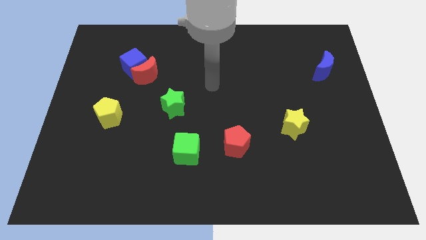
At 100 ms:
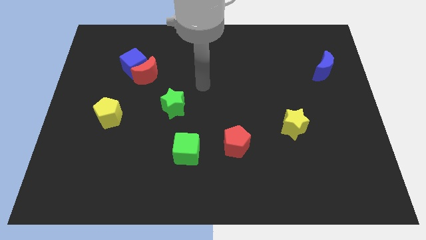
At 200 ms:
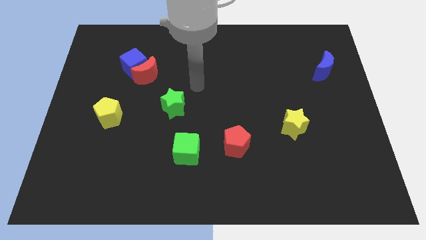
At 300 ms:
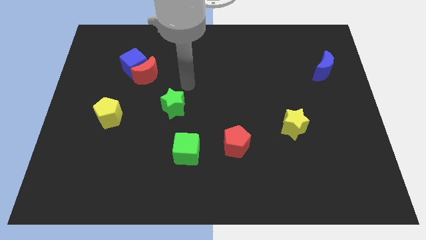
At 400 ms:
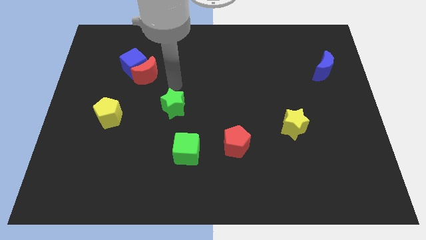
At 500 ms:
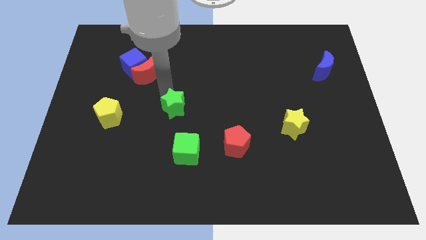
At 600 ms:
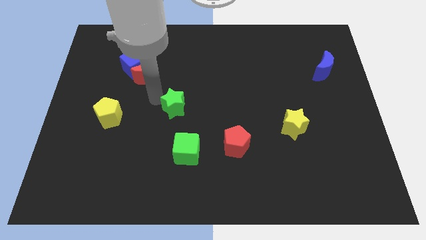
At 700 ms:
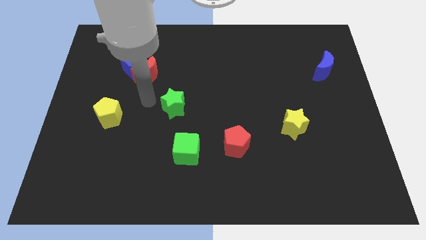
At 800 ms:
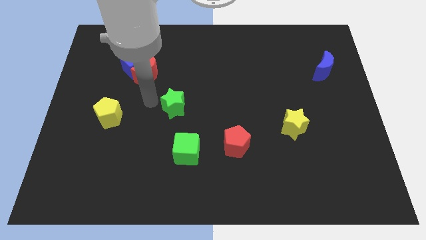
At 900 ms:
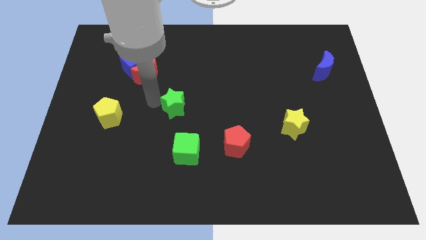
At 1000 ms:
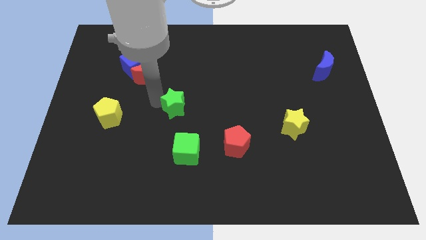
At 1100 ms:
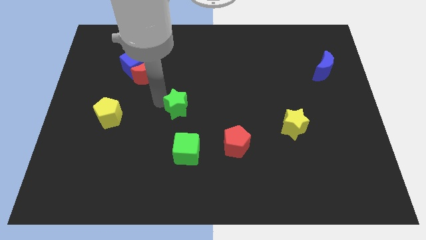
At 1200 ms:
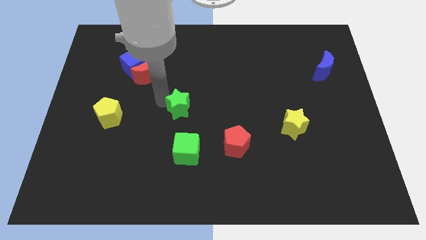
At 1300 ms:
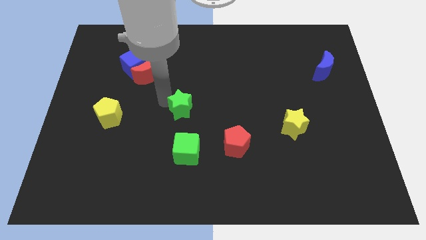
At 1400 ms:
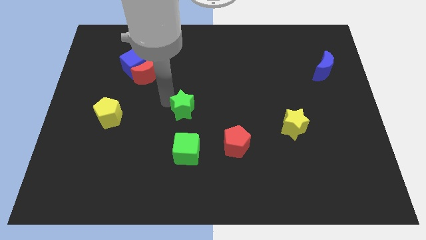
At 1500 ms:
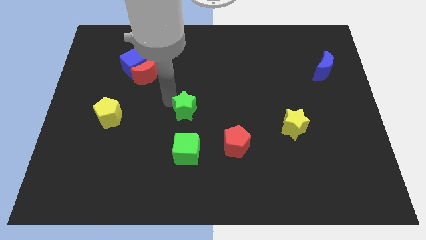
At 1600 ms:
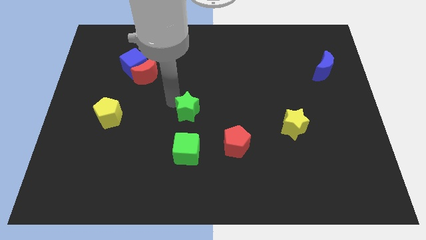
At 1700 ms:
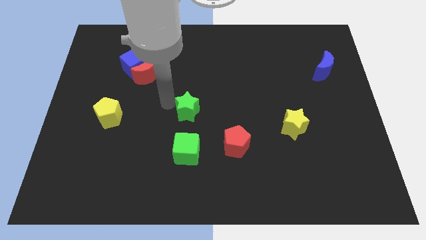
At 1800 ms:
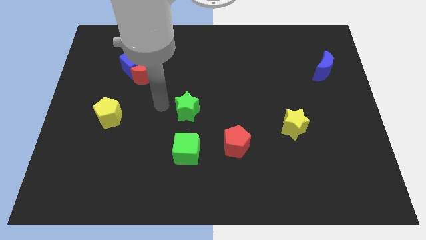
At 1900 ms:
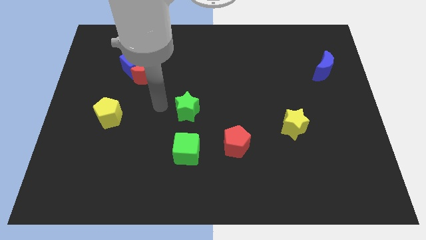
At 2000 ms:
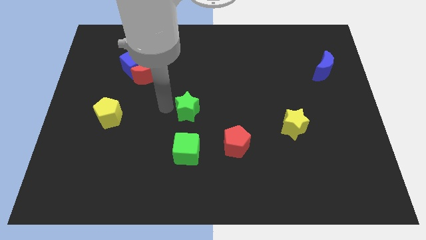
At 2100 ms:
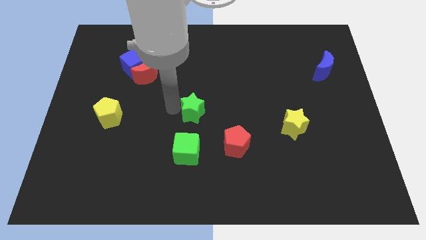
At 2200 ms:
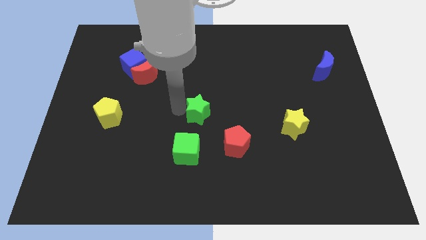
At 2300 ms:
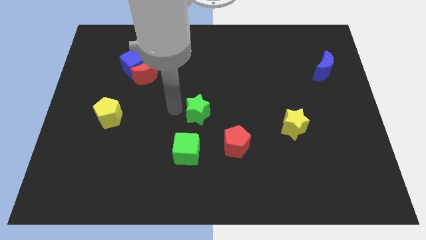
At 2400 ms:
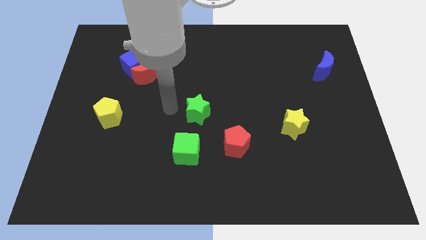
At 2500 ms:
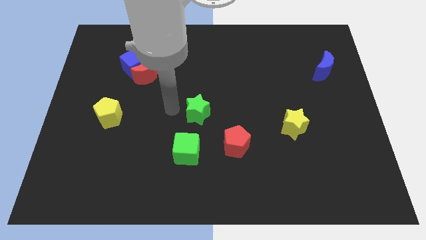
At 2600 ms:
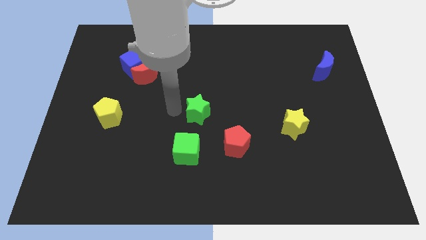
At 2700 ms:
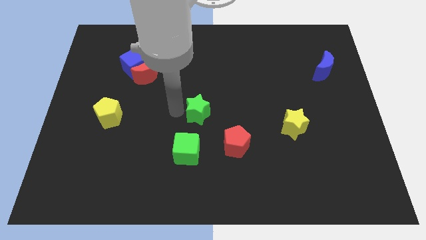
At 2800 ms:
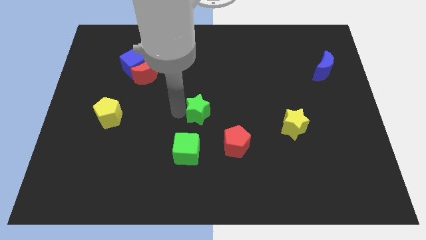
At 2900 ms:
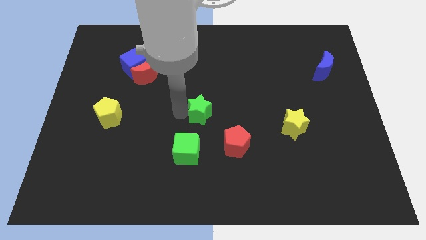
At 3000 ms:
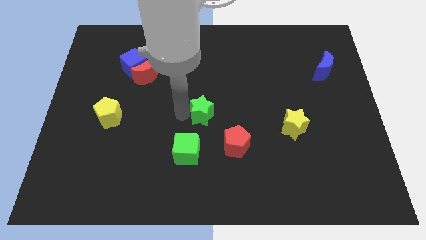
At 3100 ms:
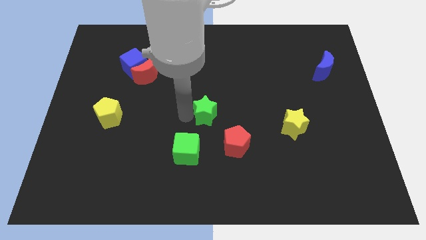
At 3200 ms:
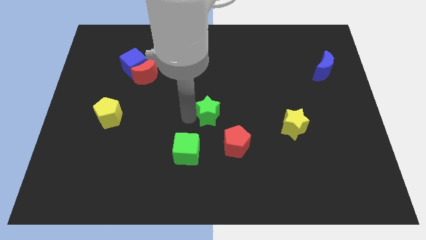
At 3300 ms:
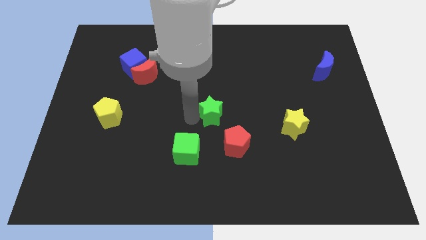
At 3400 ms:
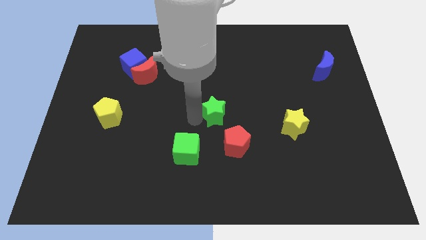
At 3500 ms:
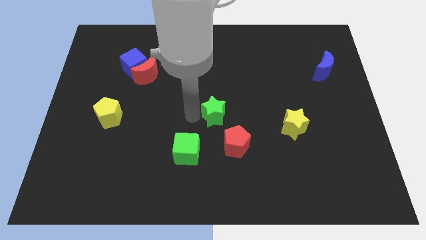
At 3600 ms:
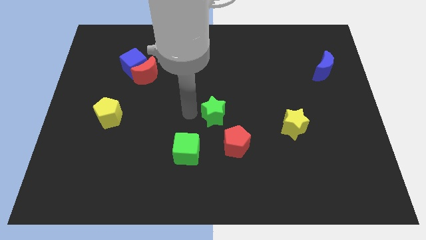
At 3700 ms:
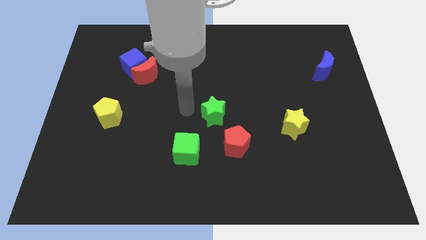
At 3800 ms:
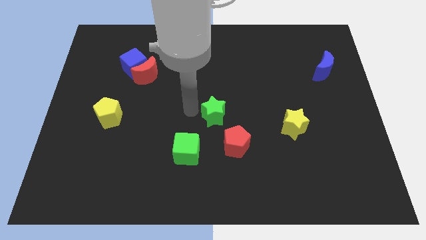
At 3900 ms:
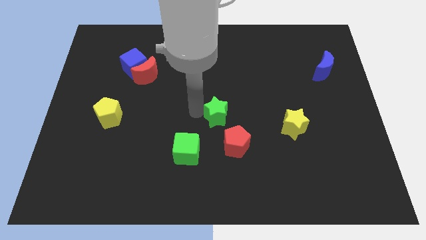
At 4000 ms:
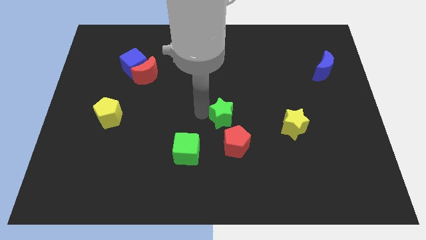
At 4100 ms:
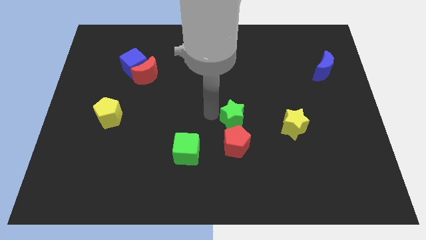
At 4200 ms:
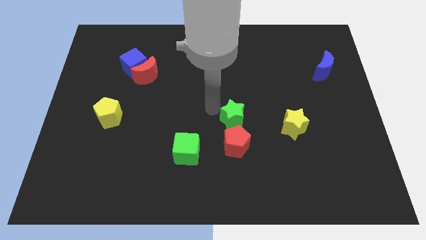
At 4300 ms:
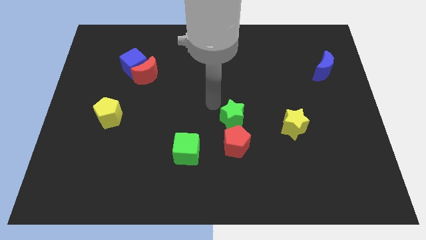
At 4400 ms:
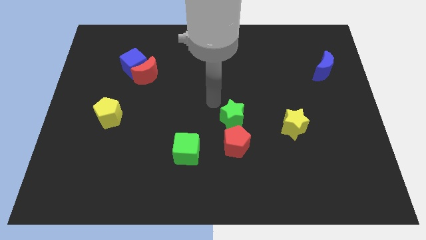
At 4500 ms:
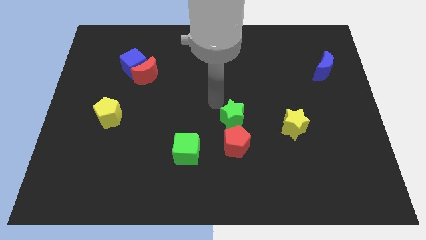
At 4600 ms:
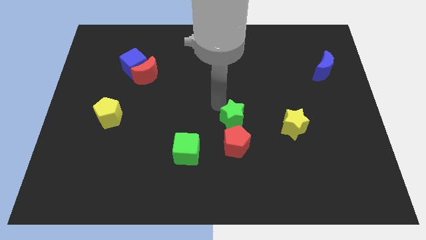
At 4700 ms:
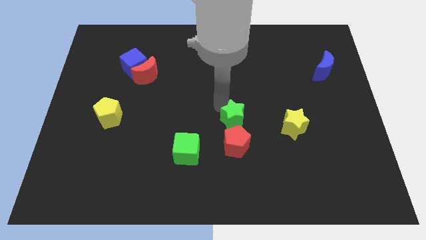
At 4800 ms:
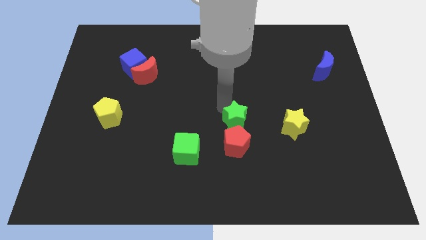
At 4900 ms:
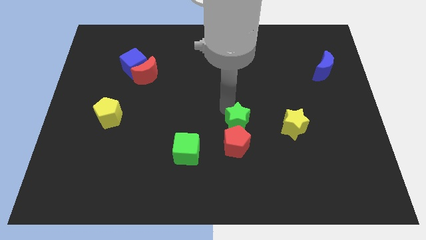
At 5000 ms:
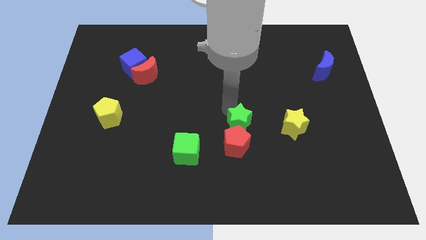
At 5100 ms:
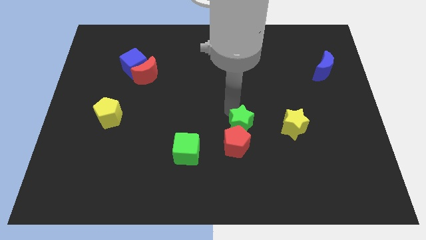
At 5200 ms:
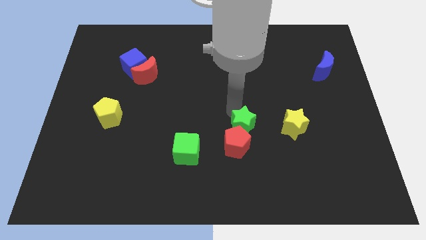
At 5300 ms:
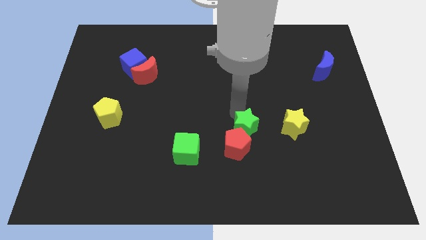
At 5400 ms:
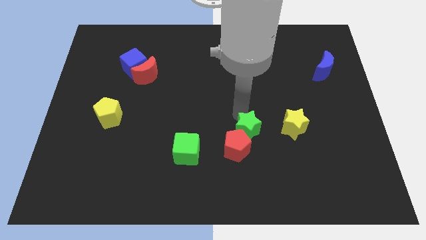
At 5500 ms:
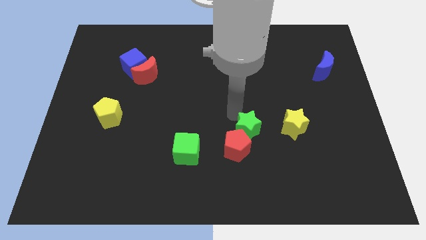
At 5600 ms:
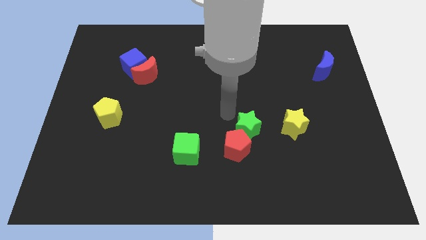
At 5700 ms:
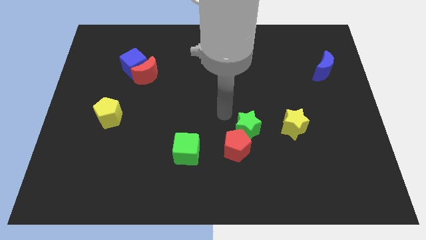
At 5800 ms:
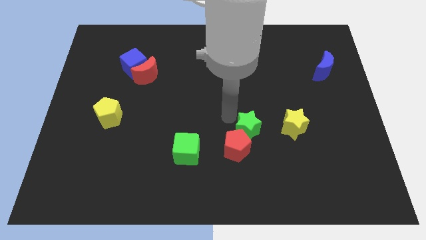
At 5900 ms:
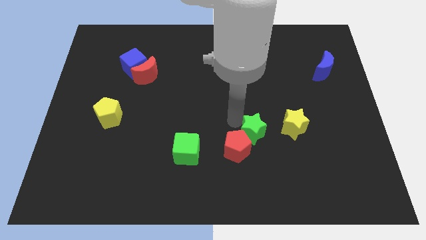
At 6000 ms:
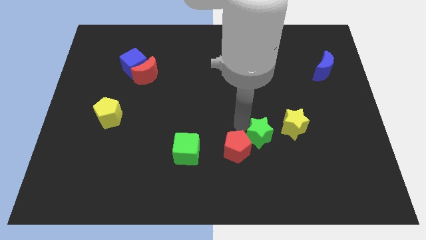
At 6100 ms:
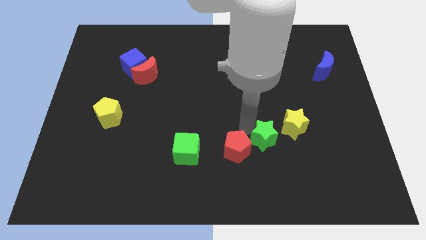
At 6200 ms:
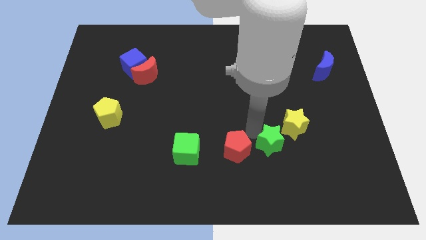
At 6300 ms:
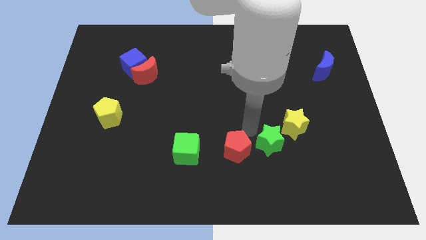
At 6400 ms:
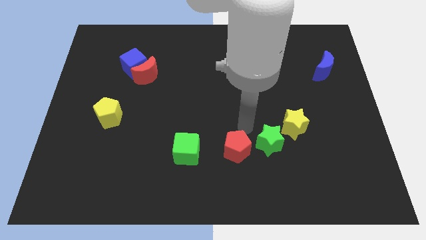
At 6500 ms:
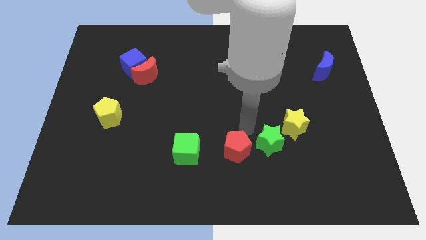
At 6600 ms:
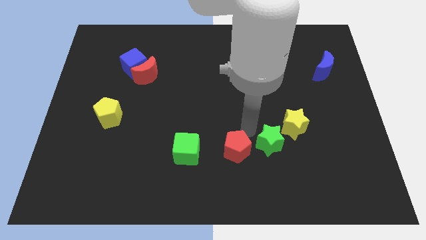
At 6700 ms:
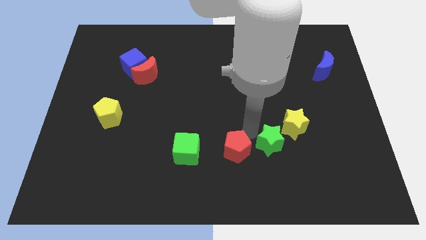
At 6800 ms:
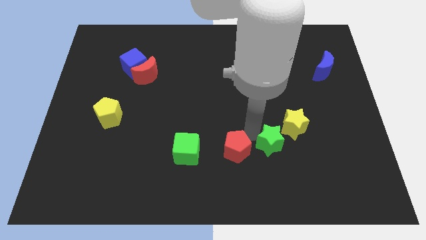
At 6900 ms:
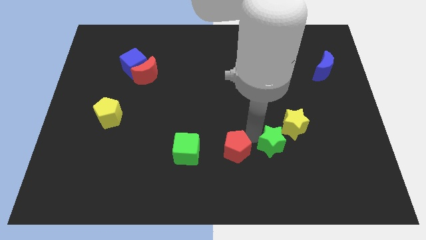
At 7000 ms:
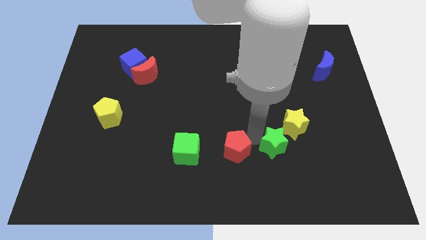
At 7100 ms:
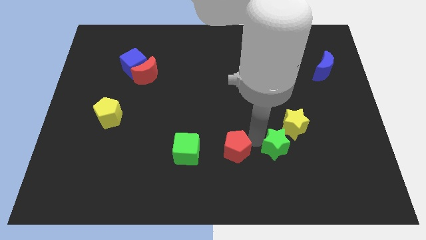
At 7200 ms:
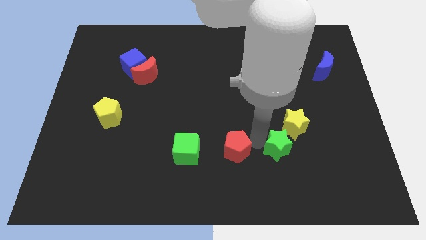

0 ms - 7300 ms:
push the green star below the yellow star
